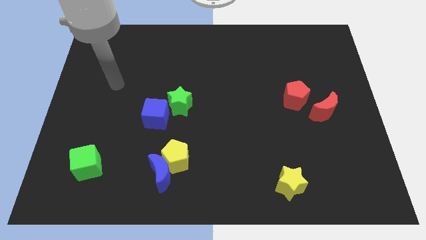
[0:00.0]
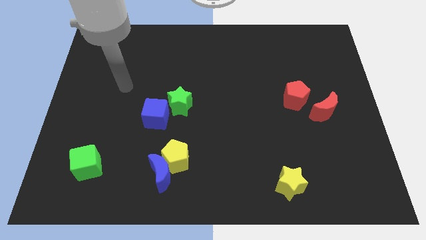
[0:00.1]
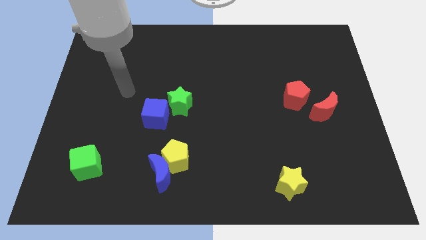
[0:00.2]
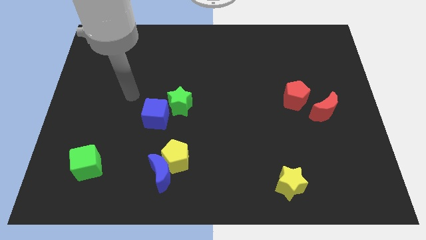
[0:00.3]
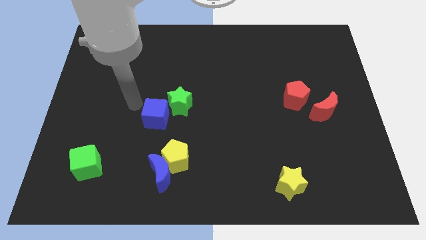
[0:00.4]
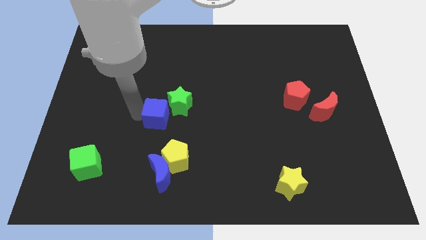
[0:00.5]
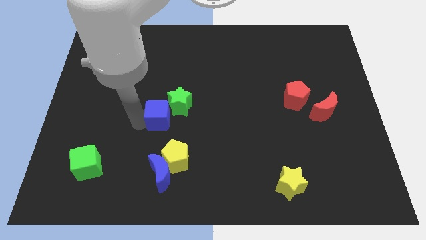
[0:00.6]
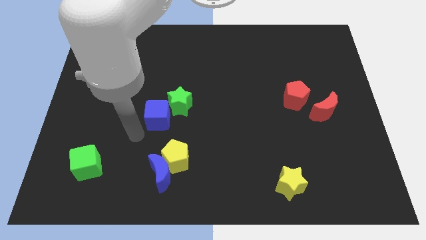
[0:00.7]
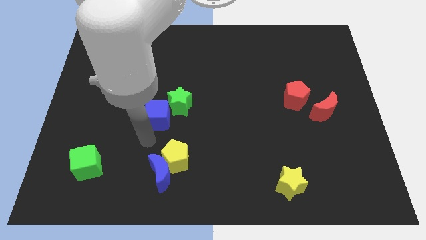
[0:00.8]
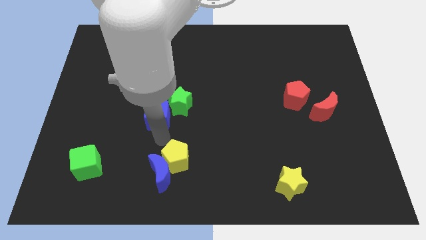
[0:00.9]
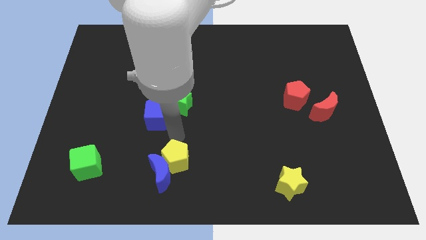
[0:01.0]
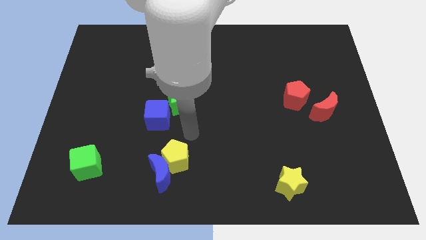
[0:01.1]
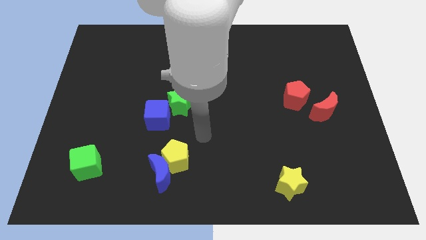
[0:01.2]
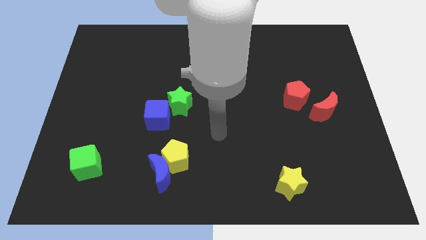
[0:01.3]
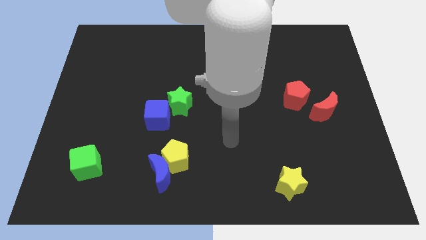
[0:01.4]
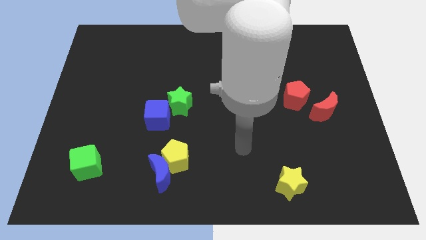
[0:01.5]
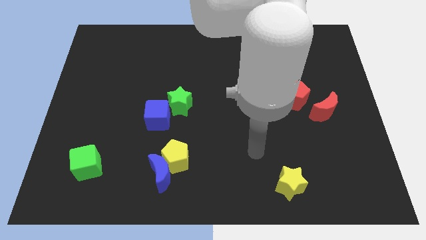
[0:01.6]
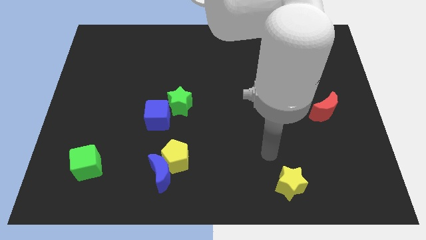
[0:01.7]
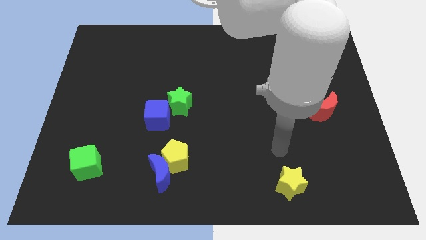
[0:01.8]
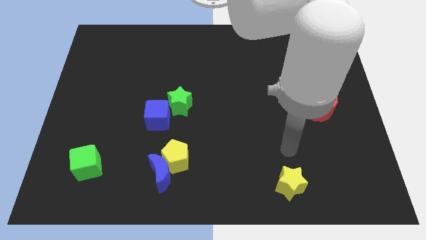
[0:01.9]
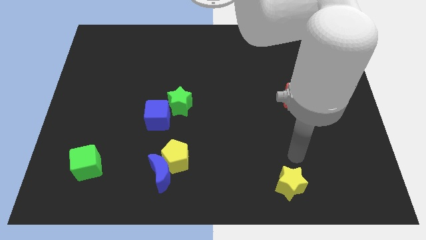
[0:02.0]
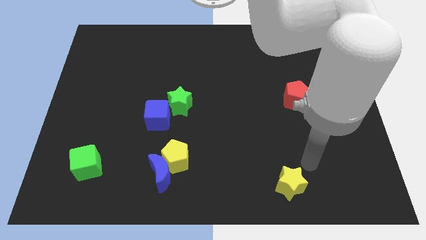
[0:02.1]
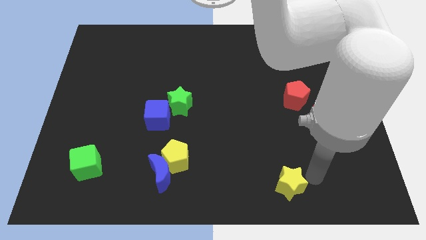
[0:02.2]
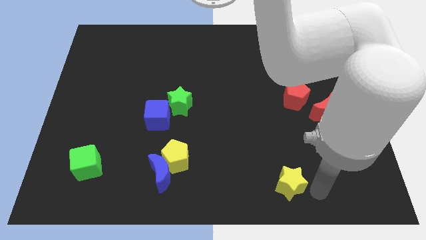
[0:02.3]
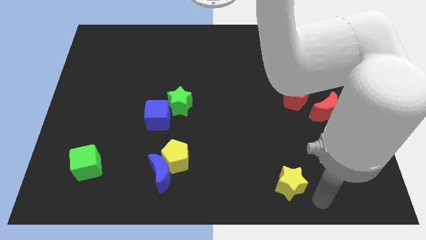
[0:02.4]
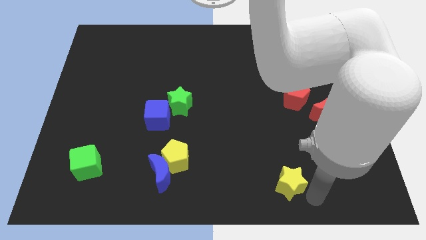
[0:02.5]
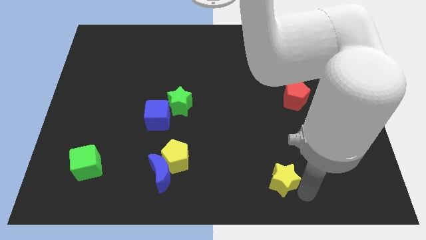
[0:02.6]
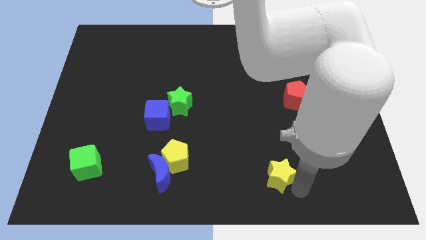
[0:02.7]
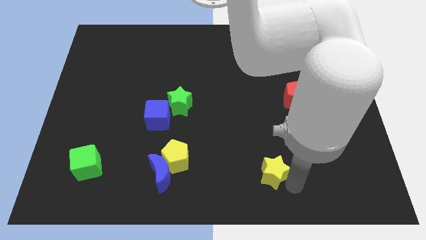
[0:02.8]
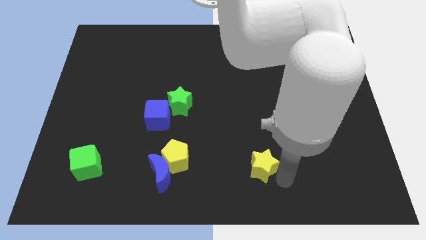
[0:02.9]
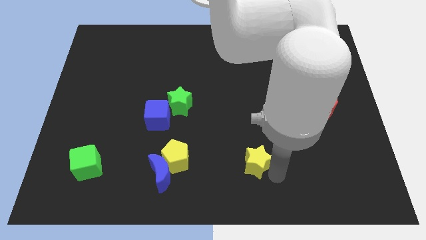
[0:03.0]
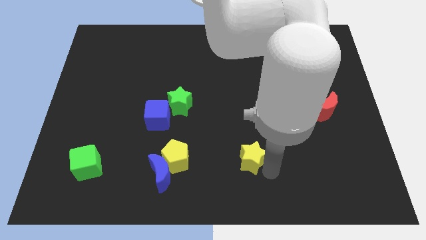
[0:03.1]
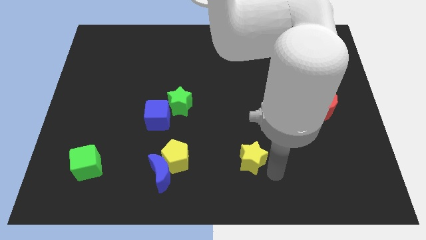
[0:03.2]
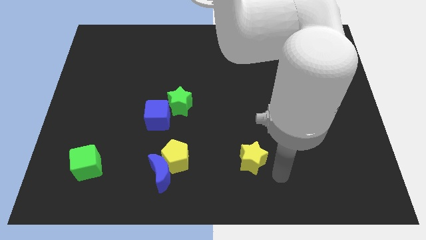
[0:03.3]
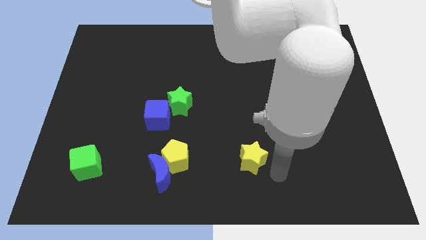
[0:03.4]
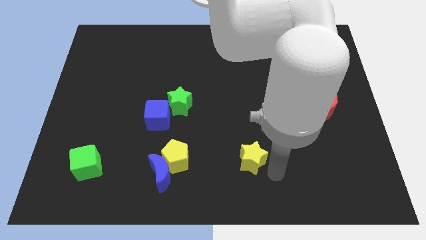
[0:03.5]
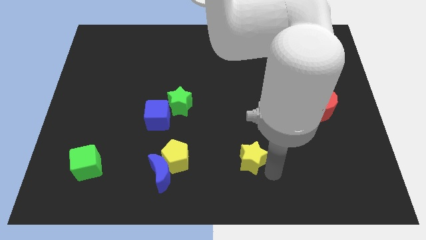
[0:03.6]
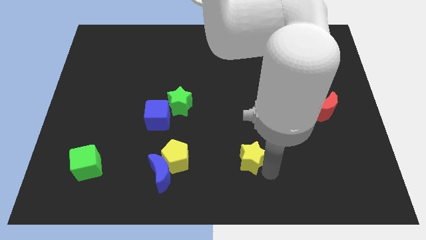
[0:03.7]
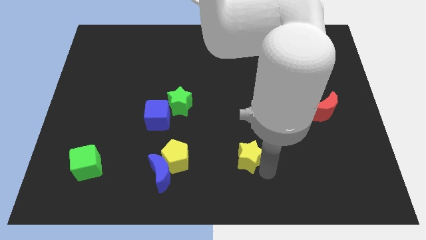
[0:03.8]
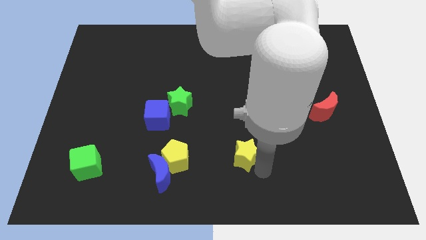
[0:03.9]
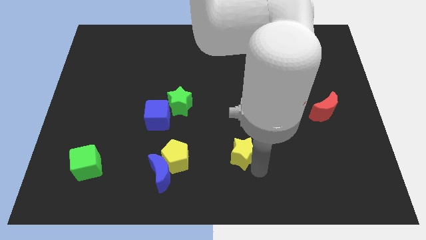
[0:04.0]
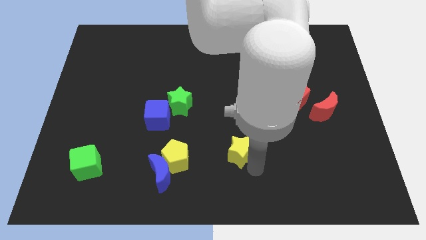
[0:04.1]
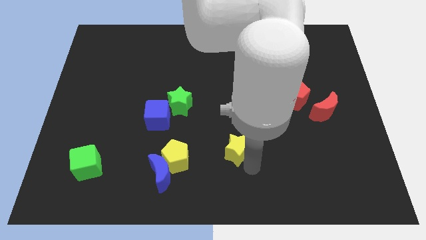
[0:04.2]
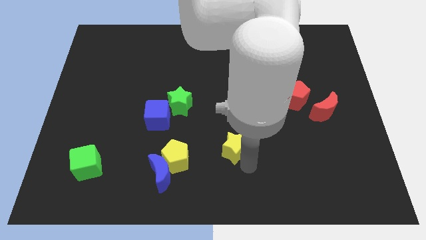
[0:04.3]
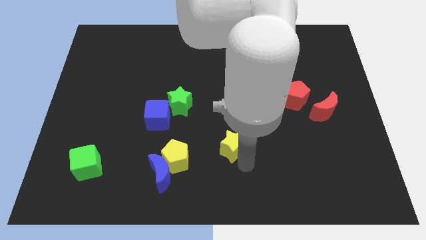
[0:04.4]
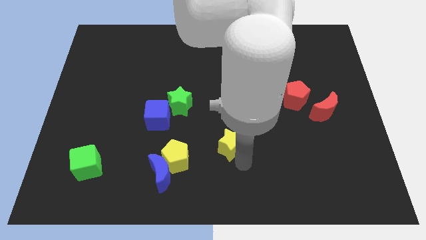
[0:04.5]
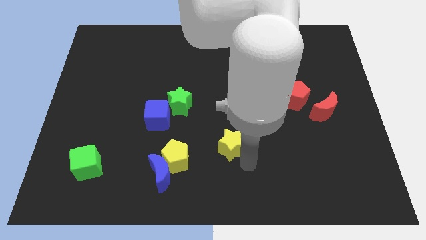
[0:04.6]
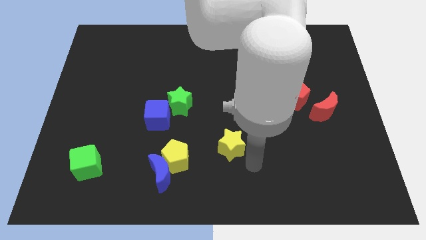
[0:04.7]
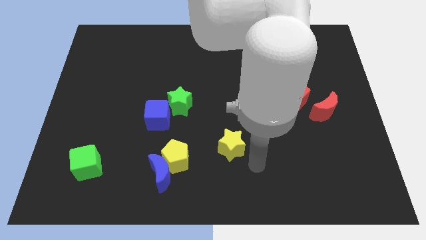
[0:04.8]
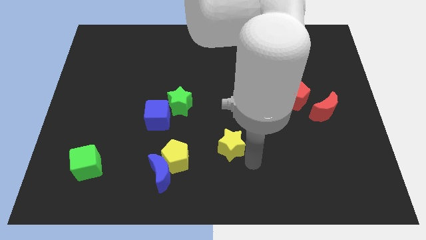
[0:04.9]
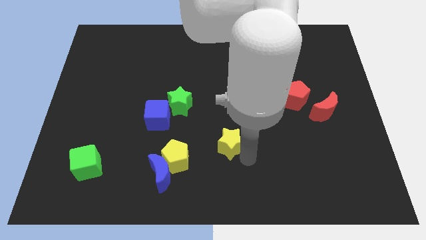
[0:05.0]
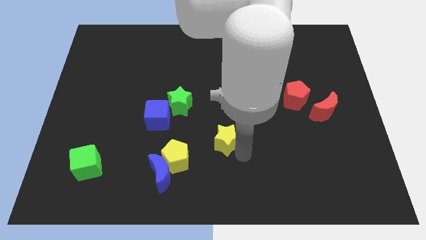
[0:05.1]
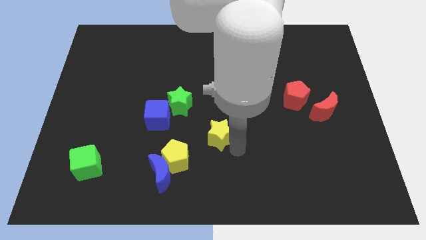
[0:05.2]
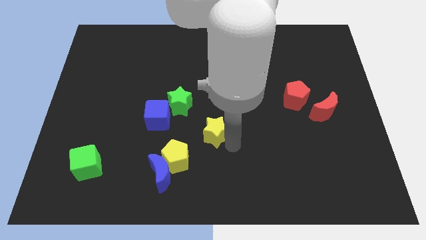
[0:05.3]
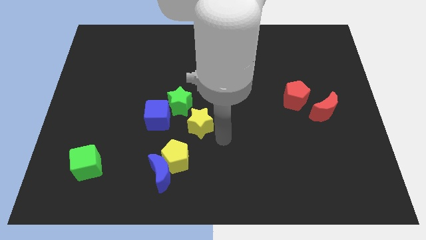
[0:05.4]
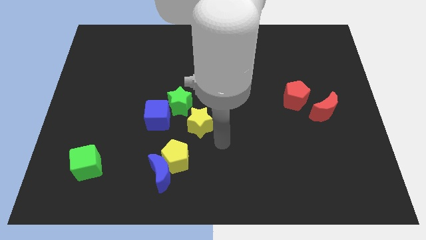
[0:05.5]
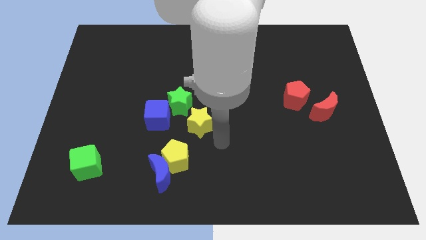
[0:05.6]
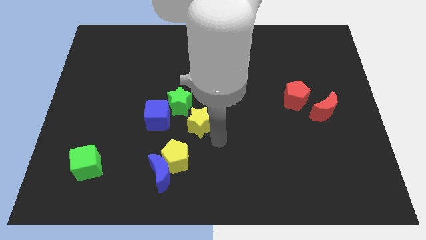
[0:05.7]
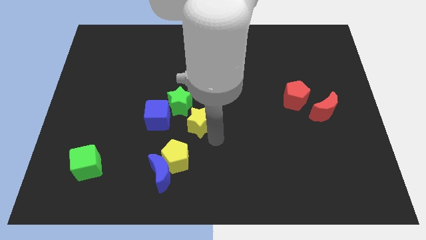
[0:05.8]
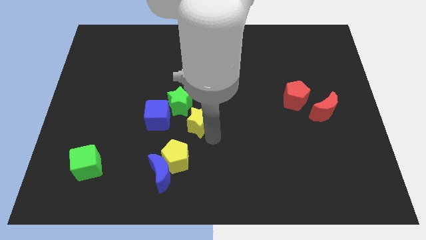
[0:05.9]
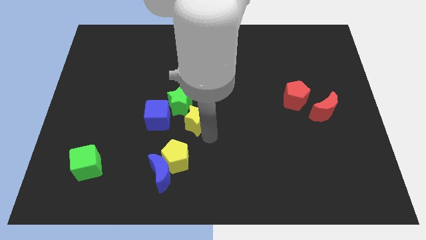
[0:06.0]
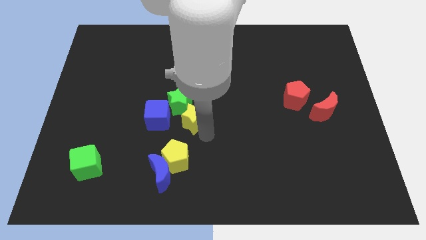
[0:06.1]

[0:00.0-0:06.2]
put the yellow star close to the green star

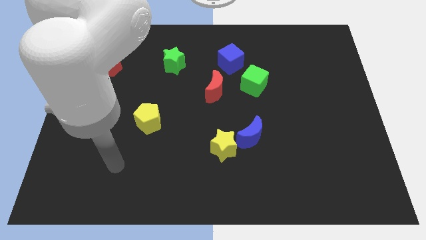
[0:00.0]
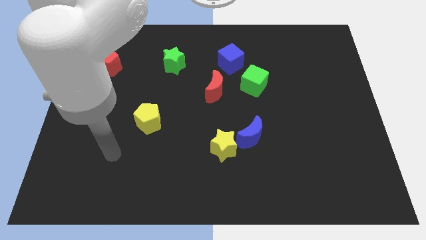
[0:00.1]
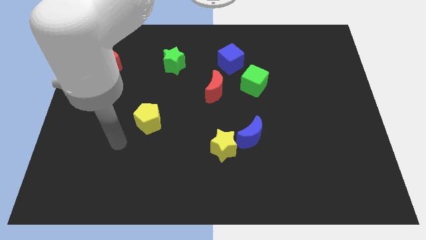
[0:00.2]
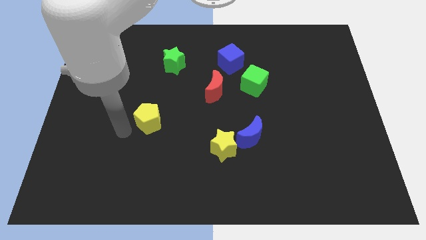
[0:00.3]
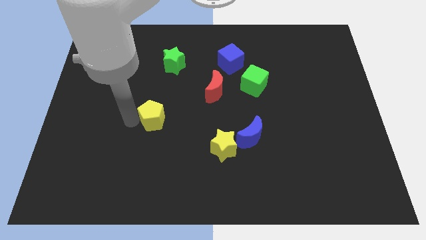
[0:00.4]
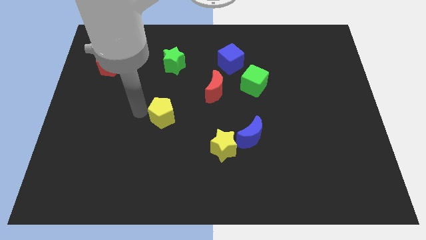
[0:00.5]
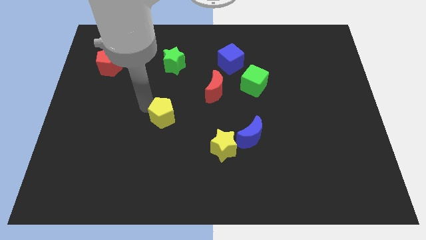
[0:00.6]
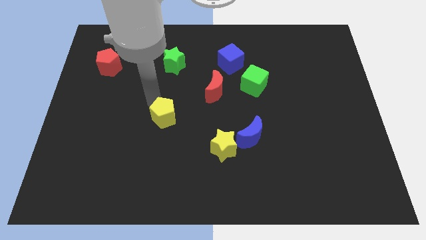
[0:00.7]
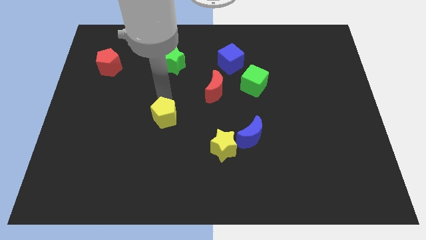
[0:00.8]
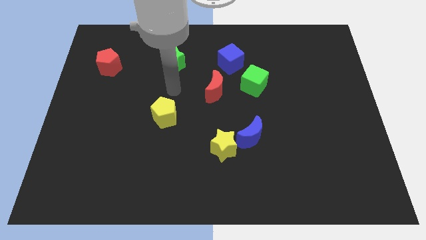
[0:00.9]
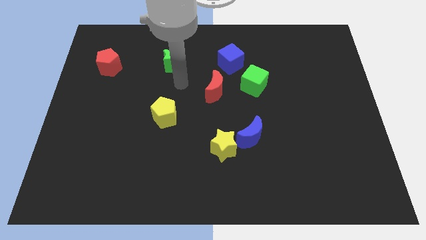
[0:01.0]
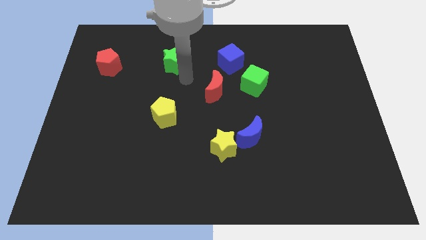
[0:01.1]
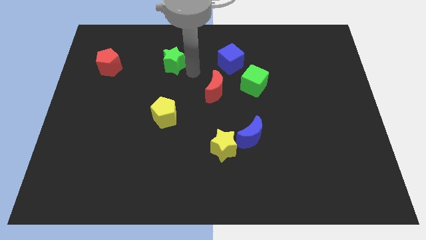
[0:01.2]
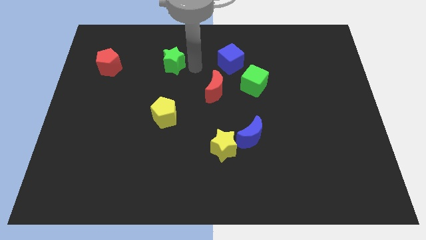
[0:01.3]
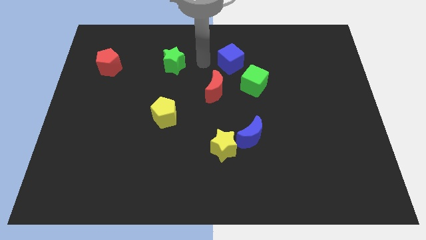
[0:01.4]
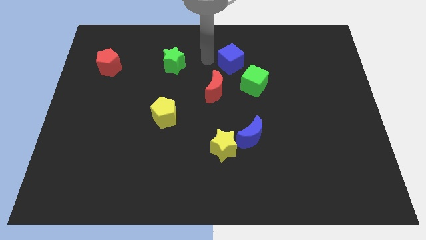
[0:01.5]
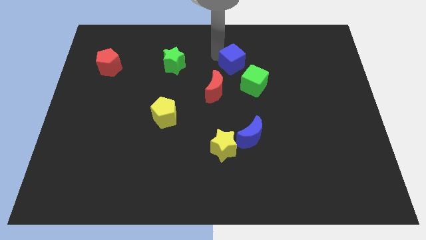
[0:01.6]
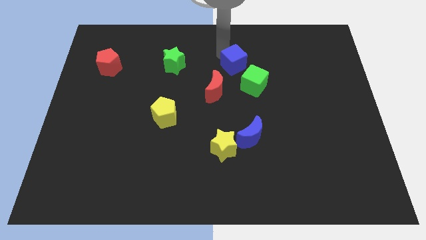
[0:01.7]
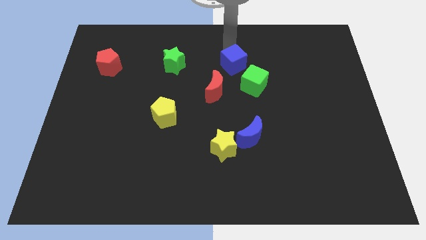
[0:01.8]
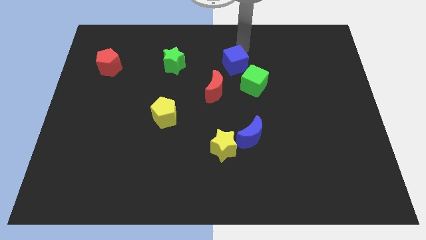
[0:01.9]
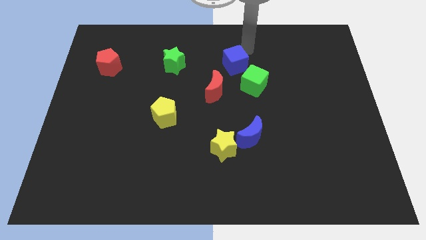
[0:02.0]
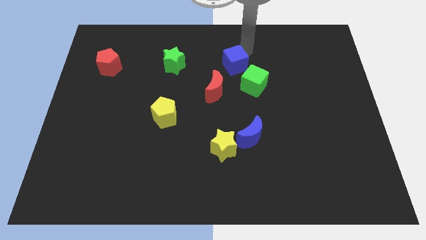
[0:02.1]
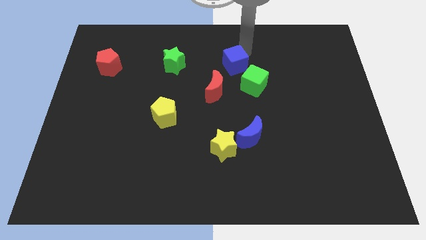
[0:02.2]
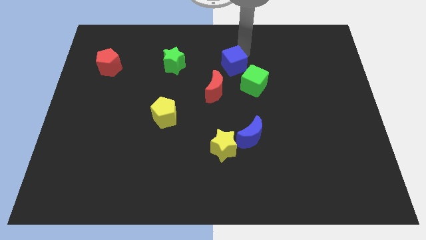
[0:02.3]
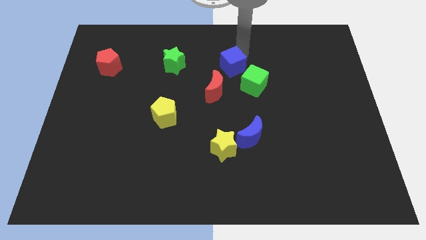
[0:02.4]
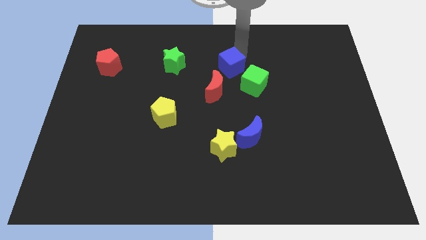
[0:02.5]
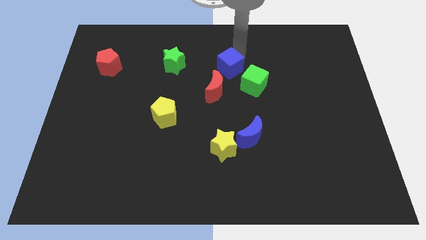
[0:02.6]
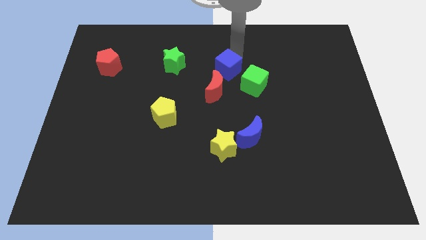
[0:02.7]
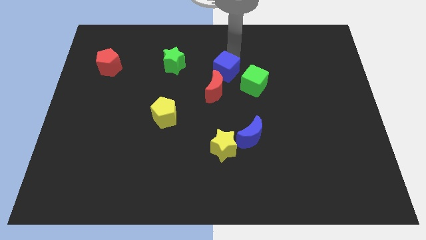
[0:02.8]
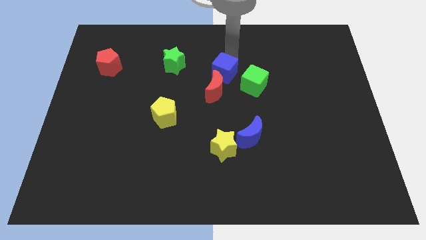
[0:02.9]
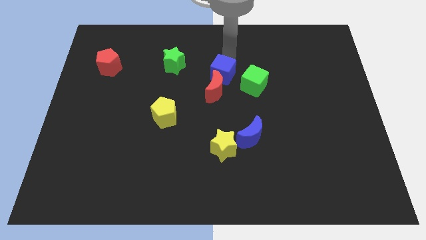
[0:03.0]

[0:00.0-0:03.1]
slide the blue cube next to the red moon
